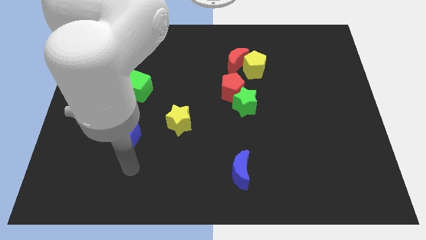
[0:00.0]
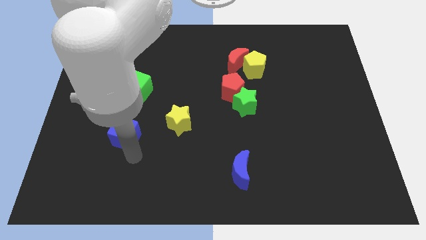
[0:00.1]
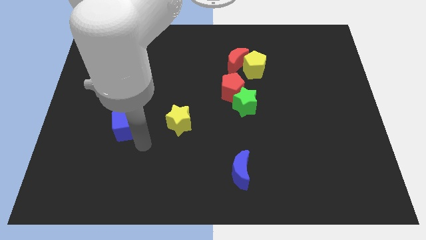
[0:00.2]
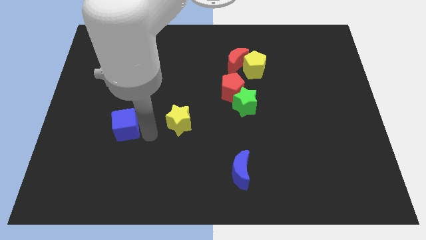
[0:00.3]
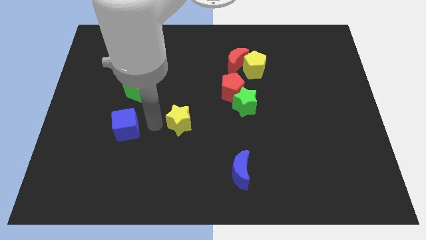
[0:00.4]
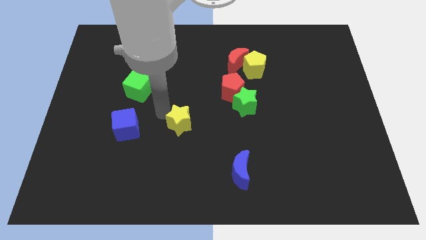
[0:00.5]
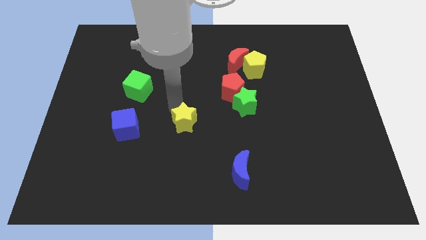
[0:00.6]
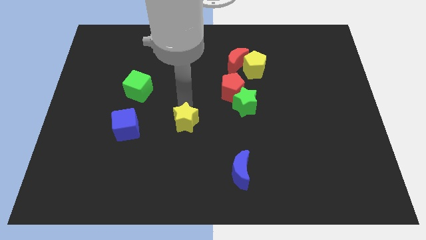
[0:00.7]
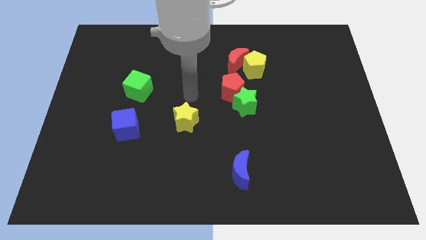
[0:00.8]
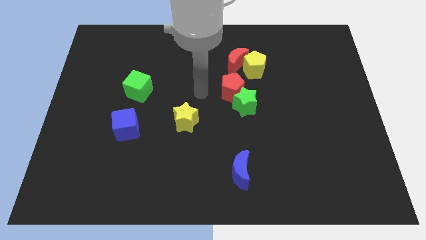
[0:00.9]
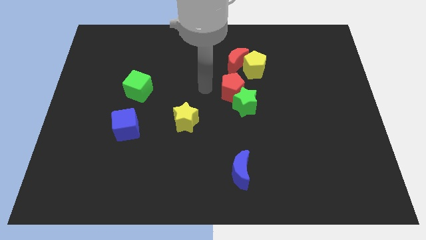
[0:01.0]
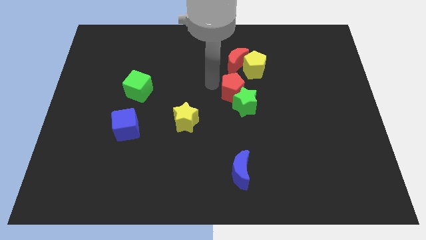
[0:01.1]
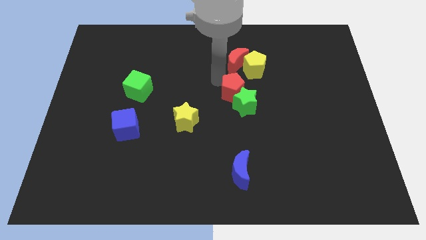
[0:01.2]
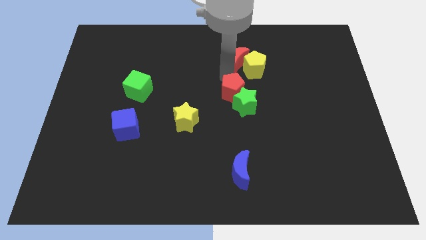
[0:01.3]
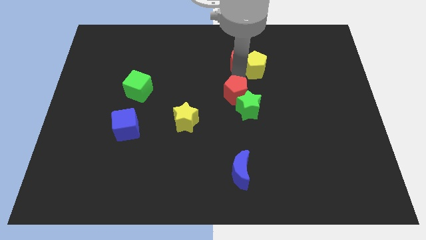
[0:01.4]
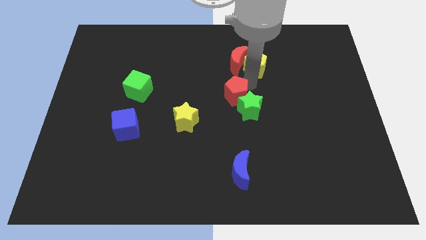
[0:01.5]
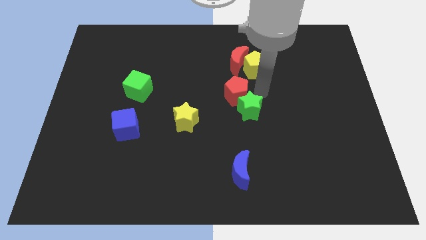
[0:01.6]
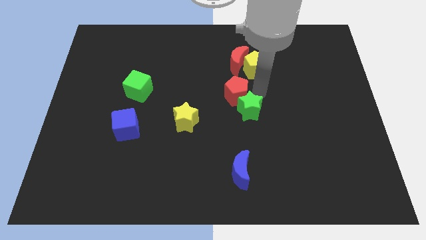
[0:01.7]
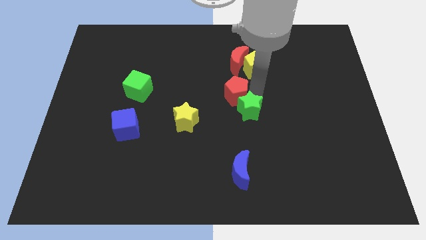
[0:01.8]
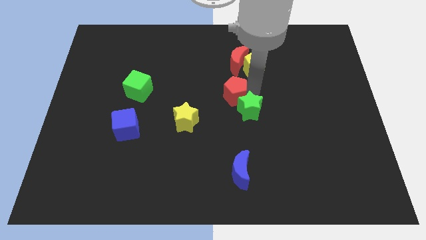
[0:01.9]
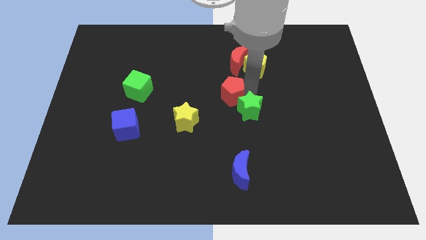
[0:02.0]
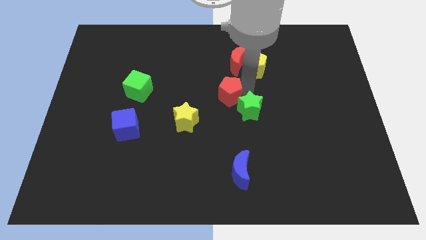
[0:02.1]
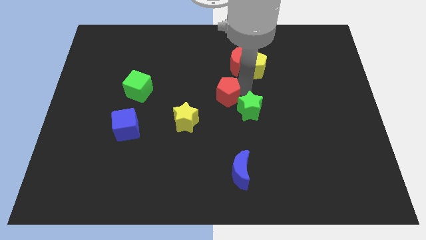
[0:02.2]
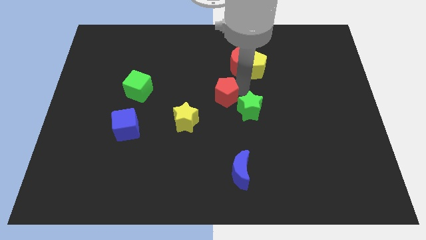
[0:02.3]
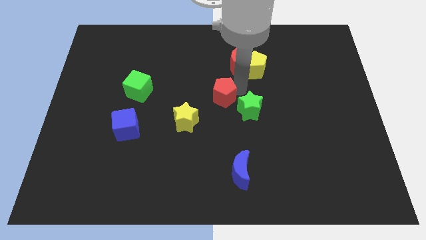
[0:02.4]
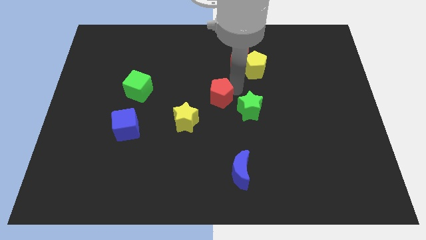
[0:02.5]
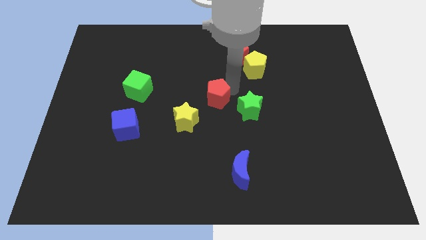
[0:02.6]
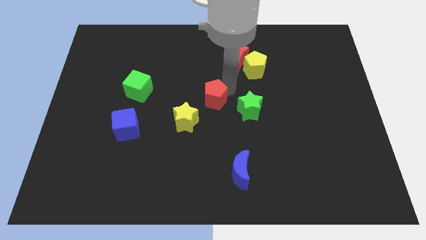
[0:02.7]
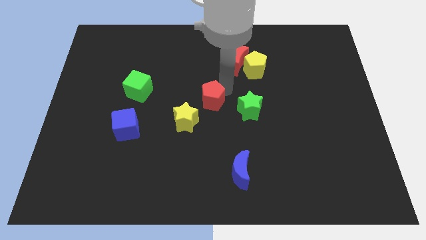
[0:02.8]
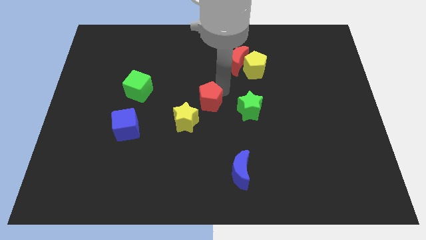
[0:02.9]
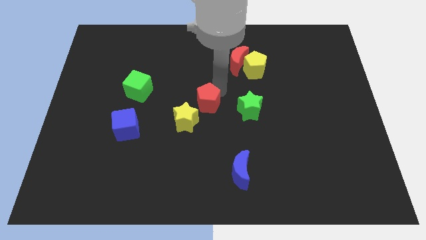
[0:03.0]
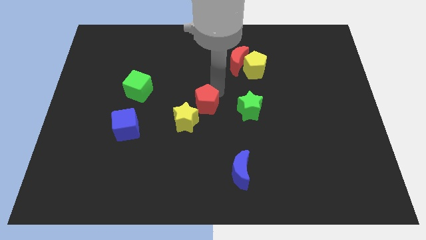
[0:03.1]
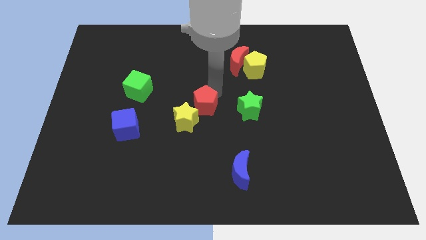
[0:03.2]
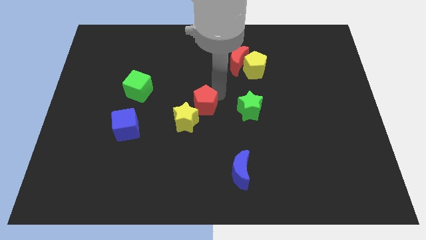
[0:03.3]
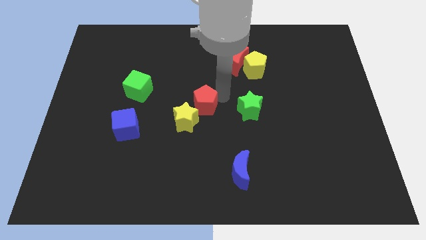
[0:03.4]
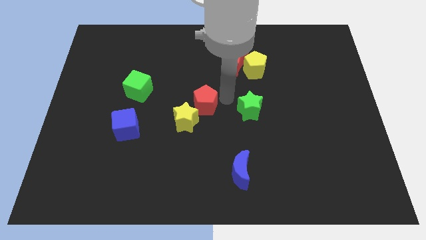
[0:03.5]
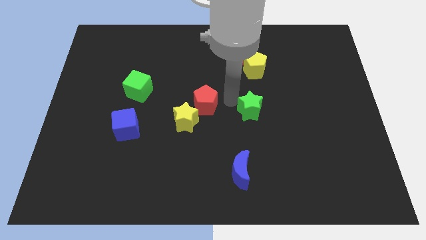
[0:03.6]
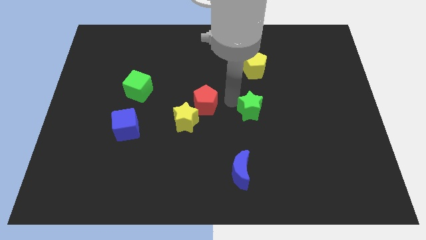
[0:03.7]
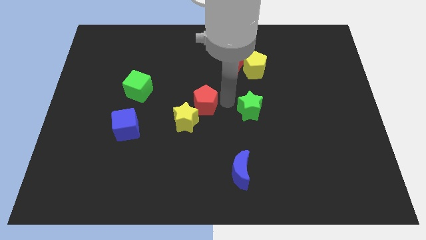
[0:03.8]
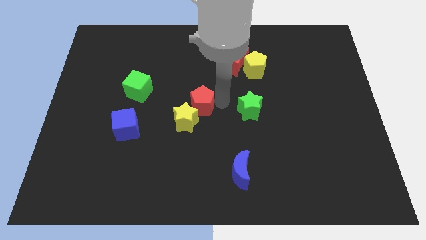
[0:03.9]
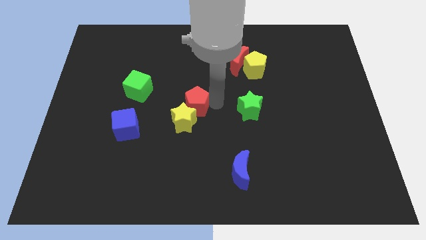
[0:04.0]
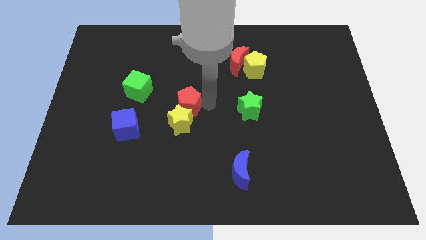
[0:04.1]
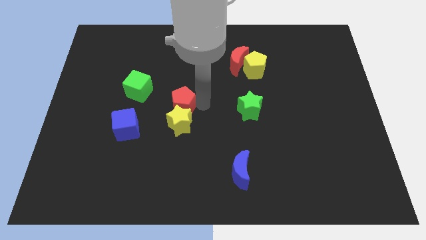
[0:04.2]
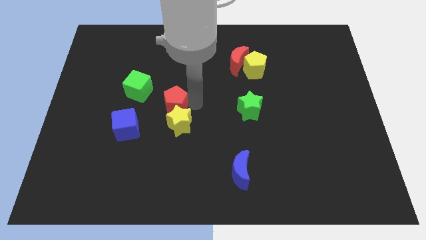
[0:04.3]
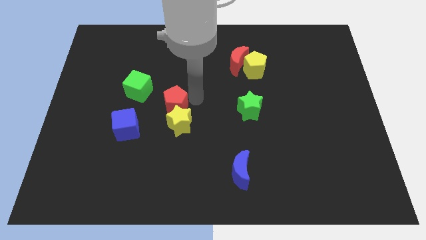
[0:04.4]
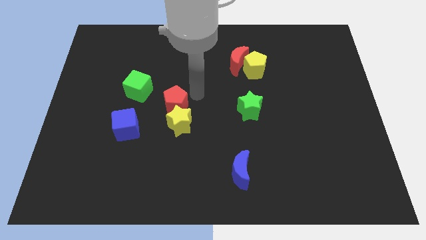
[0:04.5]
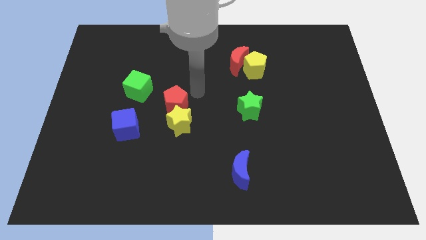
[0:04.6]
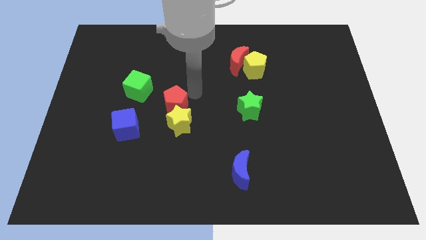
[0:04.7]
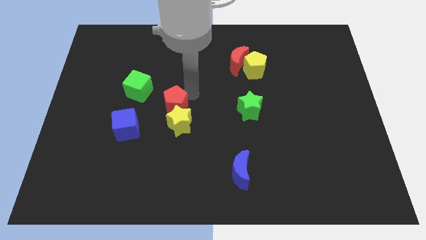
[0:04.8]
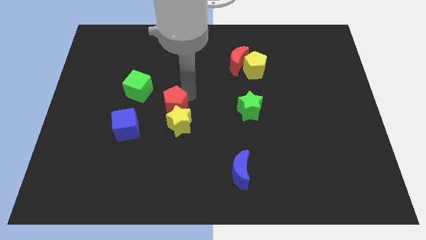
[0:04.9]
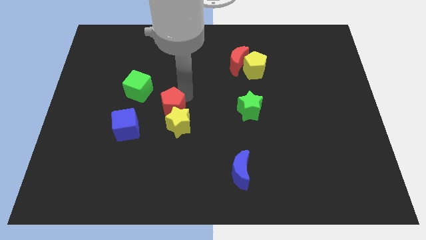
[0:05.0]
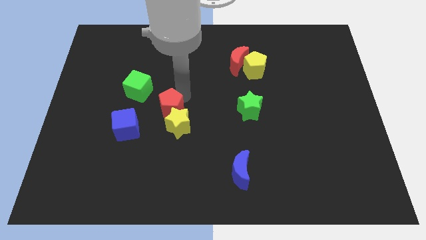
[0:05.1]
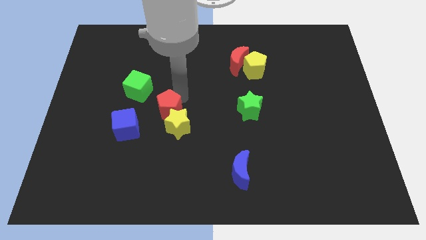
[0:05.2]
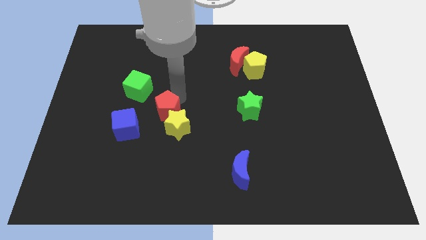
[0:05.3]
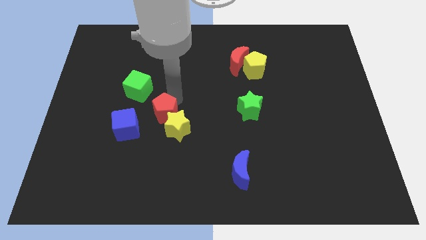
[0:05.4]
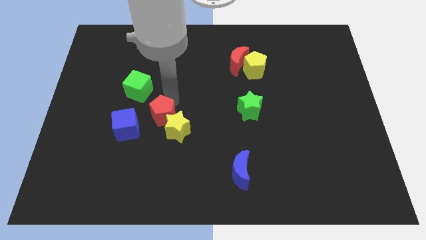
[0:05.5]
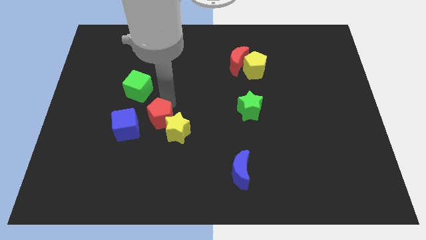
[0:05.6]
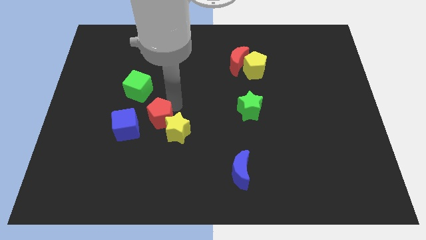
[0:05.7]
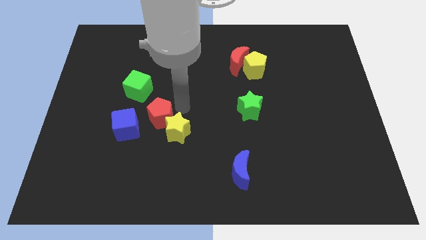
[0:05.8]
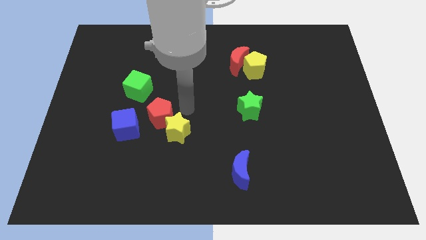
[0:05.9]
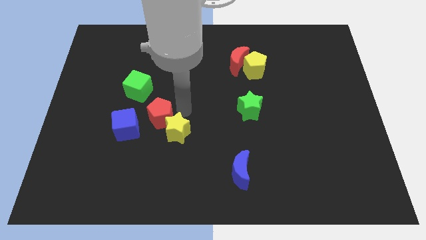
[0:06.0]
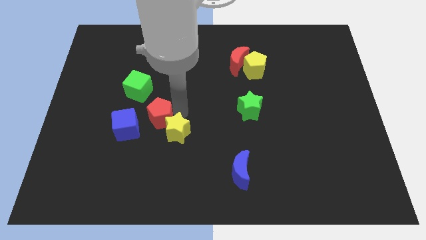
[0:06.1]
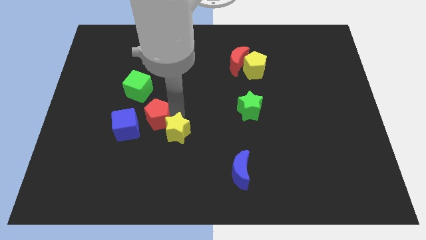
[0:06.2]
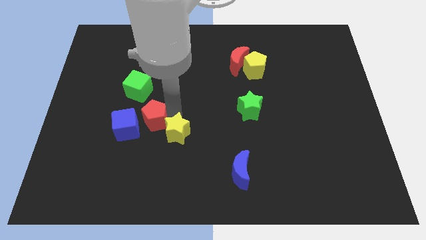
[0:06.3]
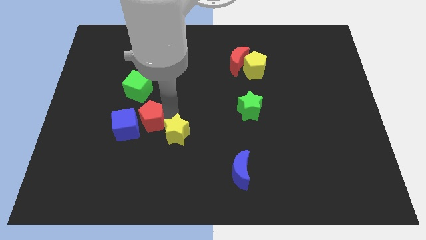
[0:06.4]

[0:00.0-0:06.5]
move the red pentagon close to the blue cube
